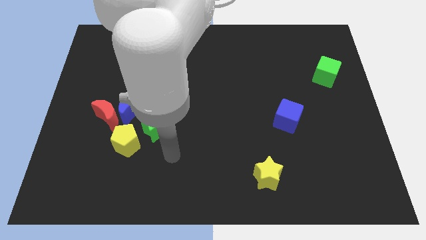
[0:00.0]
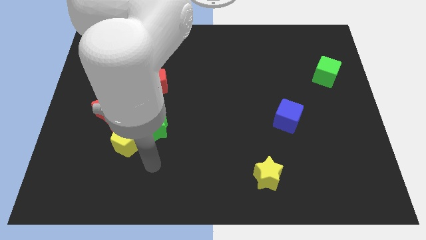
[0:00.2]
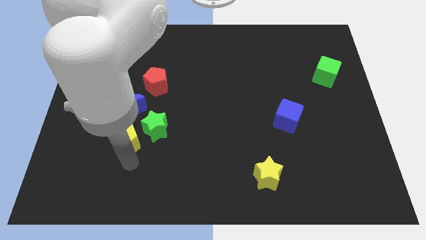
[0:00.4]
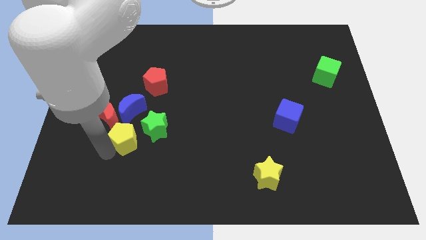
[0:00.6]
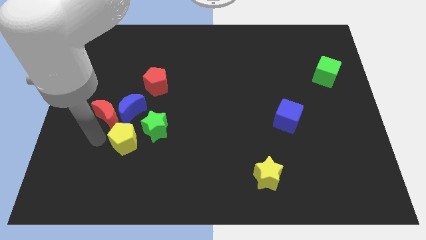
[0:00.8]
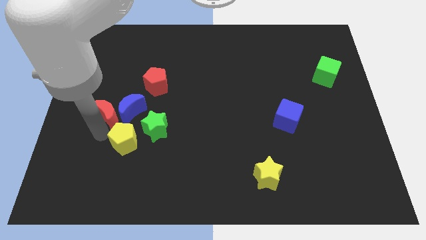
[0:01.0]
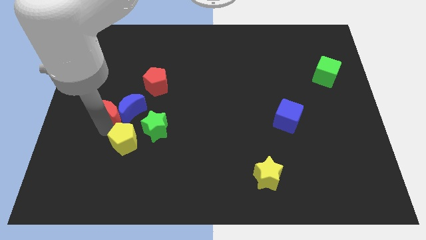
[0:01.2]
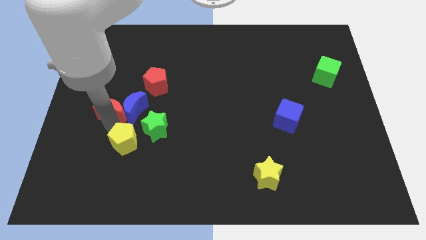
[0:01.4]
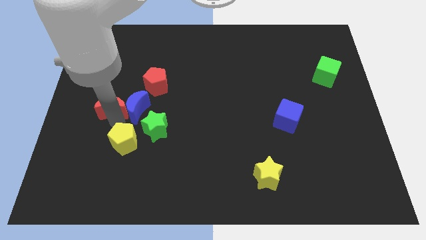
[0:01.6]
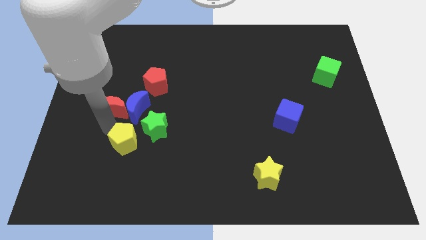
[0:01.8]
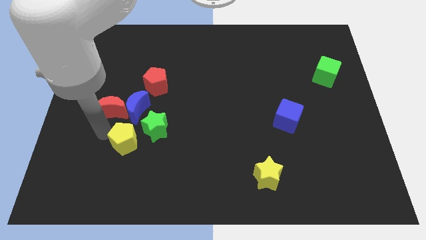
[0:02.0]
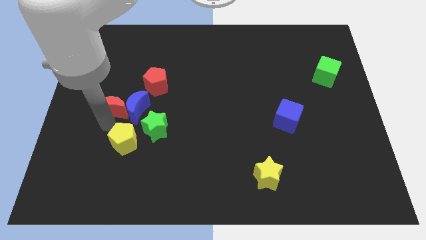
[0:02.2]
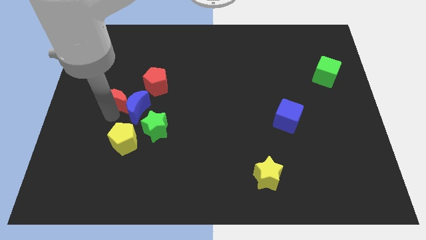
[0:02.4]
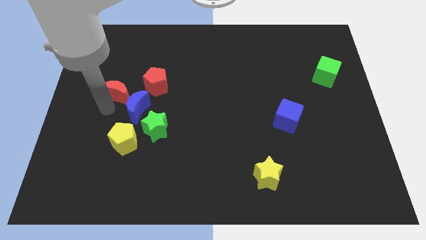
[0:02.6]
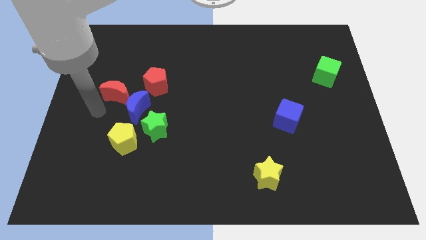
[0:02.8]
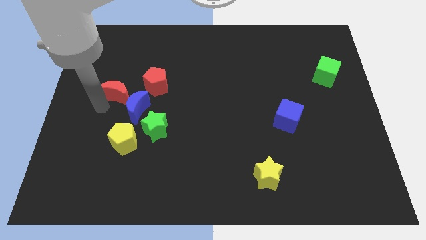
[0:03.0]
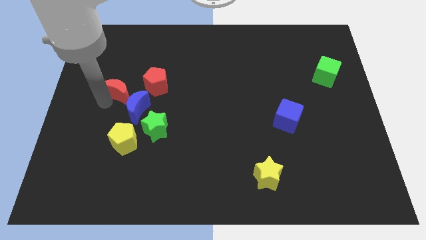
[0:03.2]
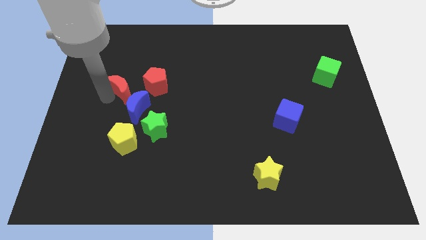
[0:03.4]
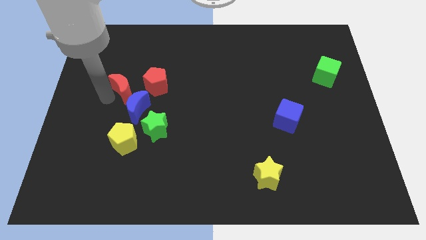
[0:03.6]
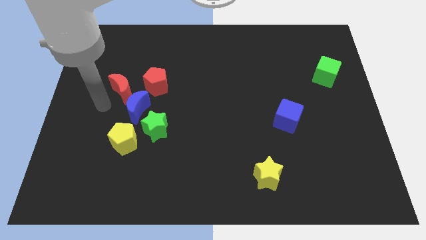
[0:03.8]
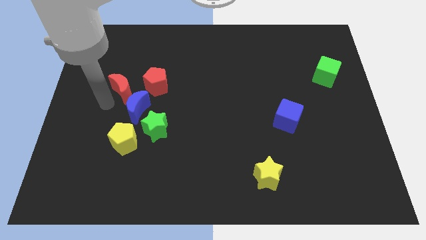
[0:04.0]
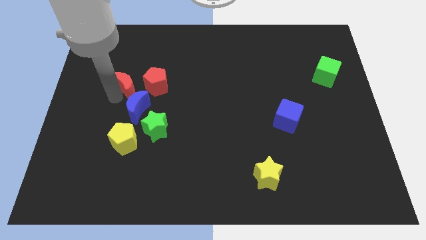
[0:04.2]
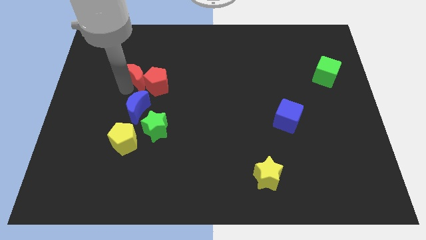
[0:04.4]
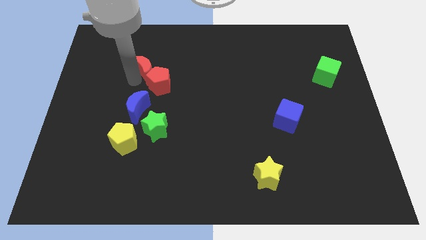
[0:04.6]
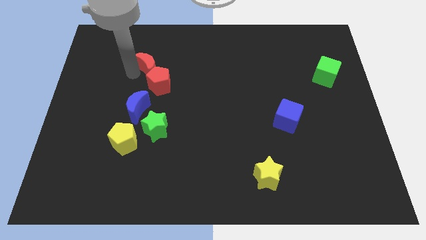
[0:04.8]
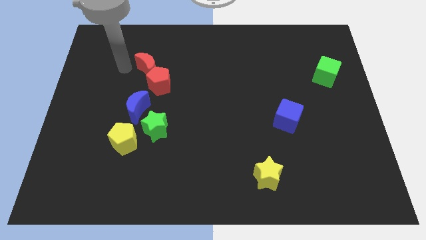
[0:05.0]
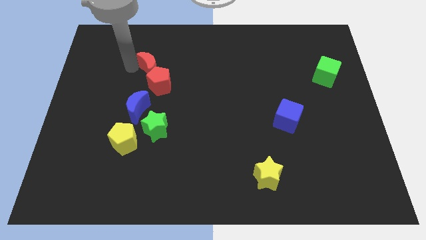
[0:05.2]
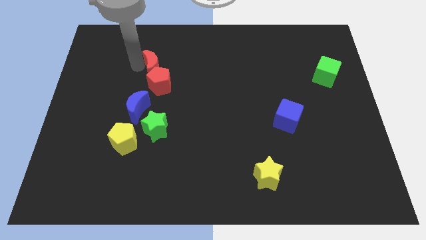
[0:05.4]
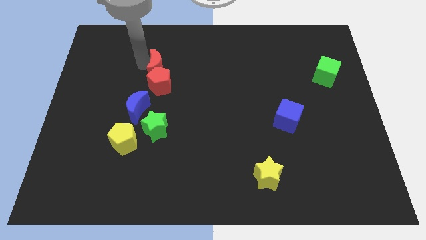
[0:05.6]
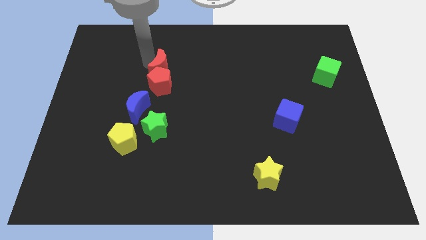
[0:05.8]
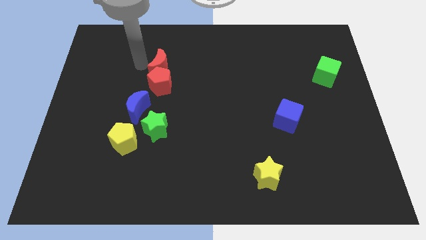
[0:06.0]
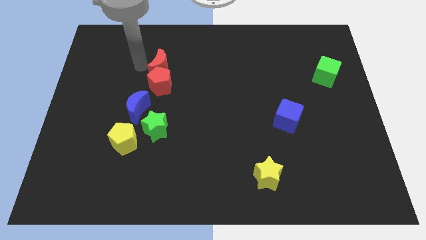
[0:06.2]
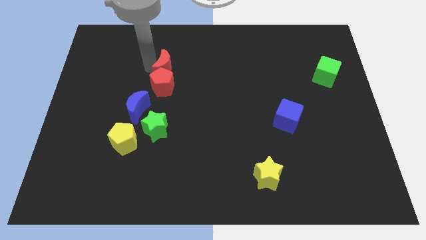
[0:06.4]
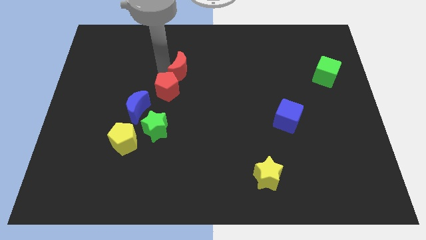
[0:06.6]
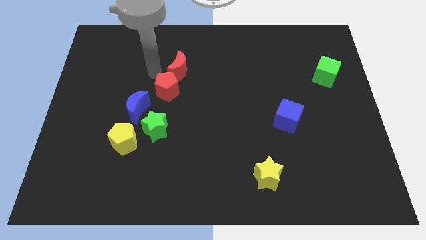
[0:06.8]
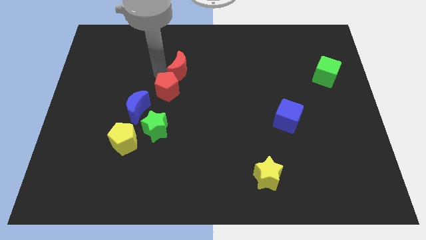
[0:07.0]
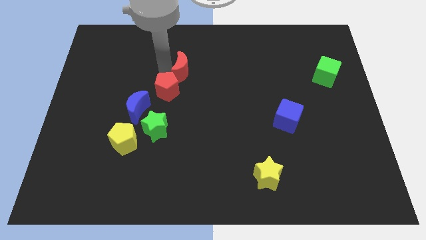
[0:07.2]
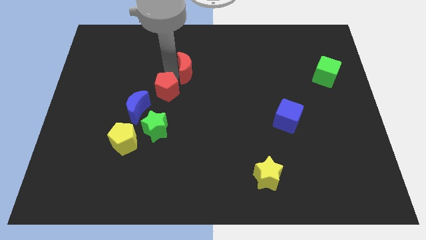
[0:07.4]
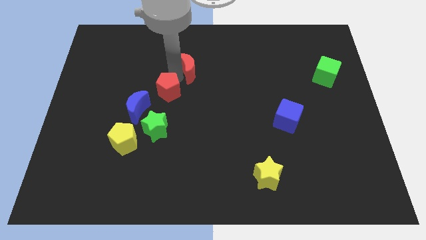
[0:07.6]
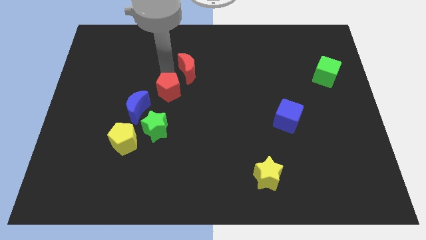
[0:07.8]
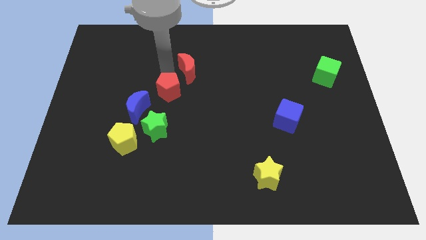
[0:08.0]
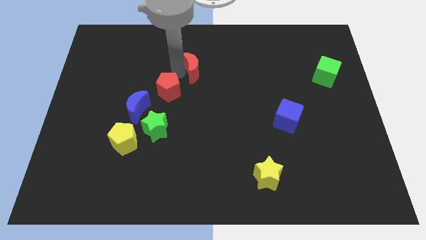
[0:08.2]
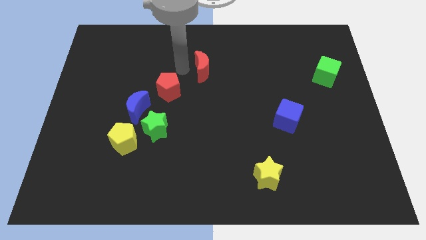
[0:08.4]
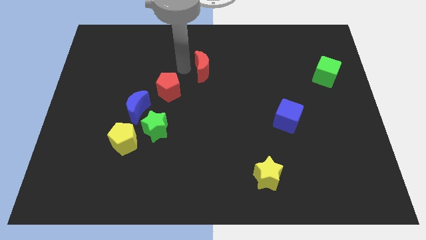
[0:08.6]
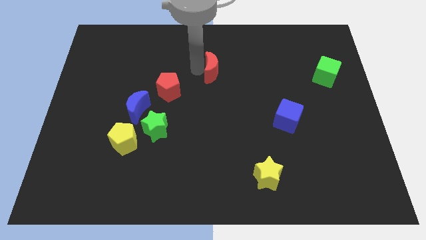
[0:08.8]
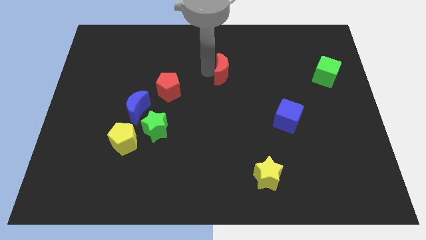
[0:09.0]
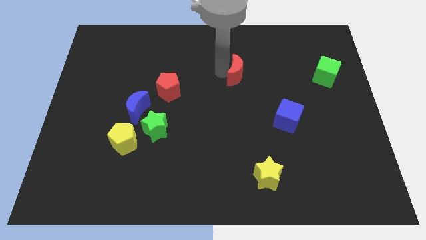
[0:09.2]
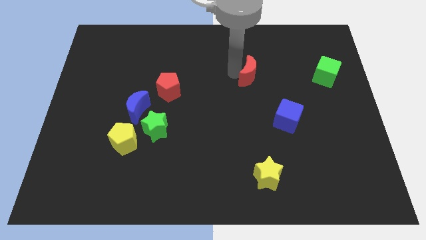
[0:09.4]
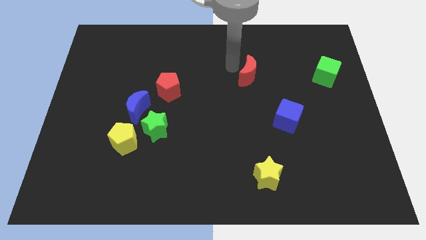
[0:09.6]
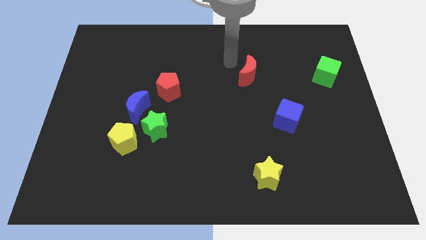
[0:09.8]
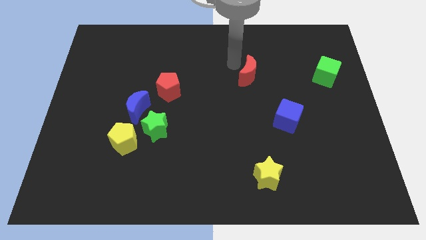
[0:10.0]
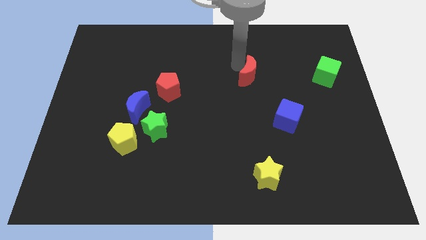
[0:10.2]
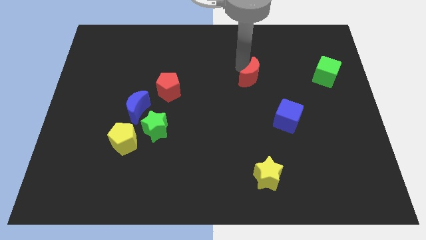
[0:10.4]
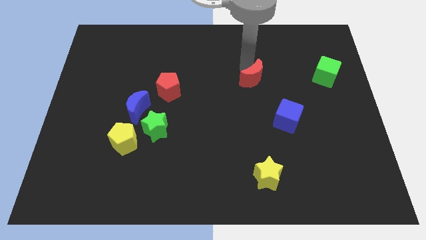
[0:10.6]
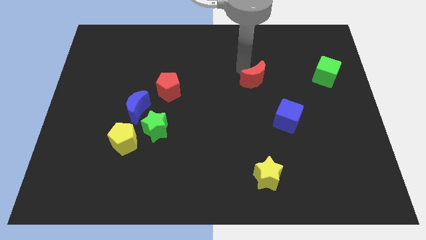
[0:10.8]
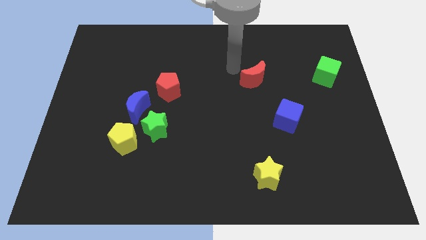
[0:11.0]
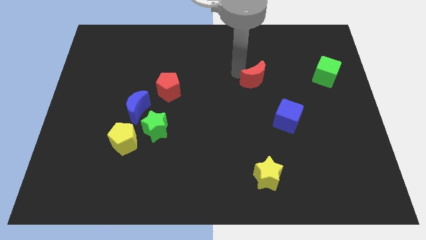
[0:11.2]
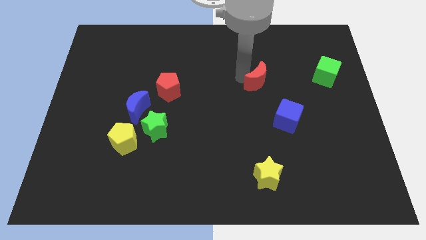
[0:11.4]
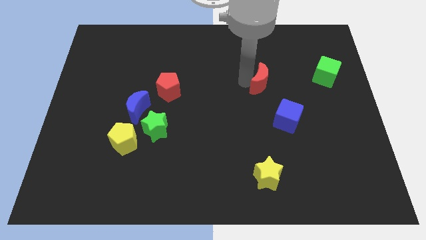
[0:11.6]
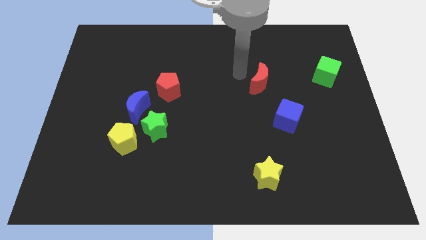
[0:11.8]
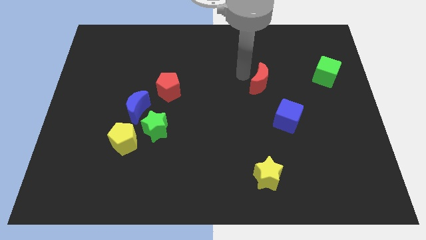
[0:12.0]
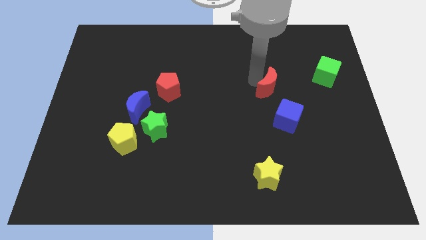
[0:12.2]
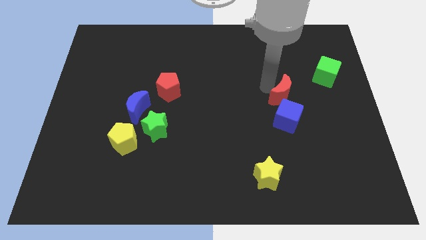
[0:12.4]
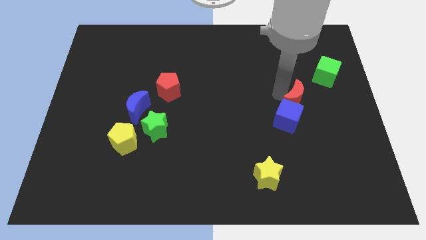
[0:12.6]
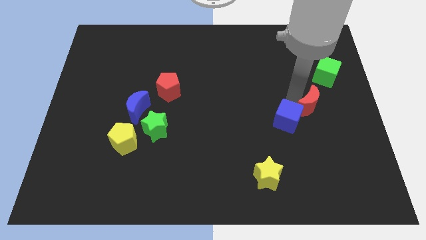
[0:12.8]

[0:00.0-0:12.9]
put the red moon to the right side of the blue cube
